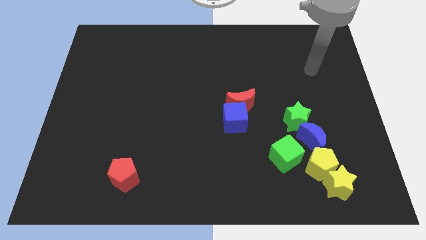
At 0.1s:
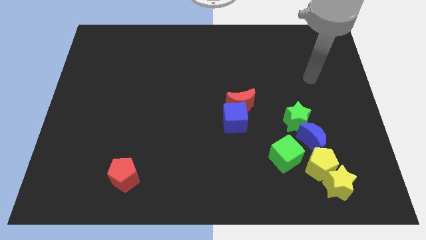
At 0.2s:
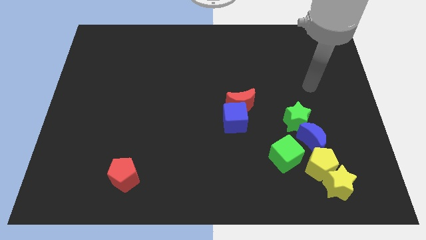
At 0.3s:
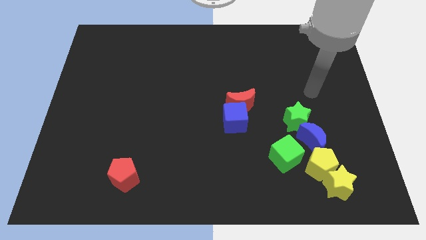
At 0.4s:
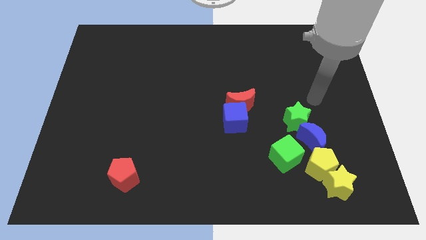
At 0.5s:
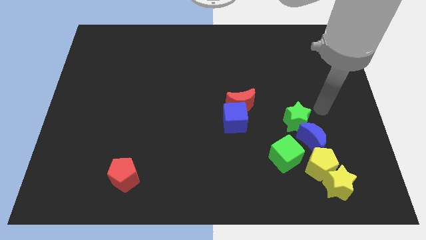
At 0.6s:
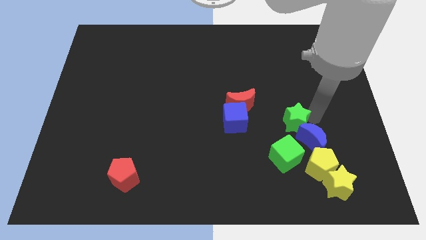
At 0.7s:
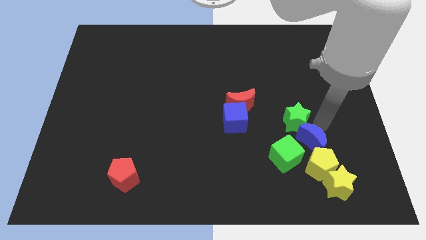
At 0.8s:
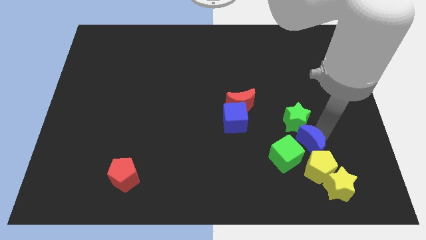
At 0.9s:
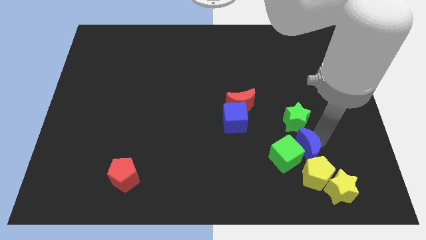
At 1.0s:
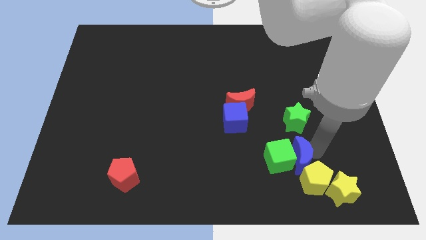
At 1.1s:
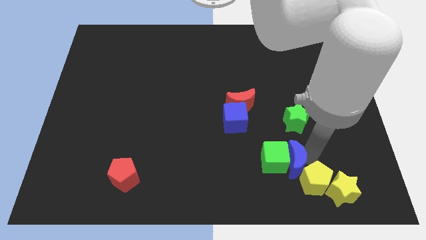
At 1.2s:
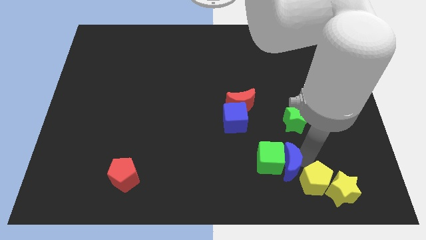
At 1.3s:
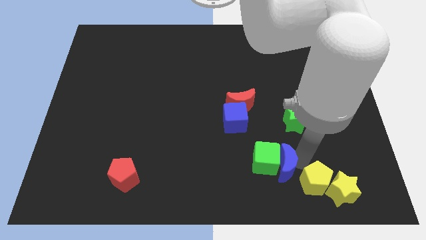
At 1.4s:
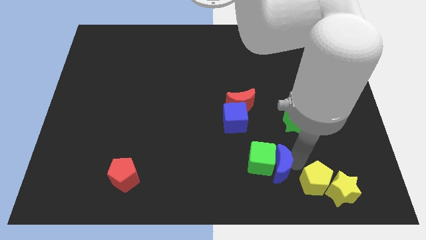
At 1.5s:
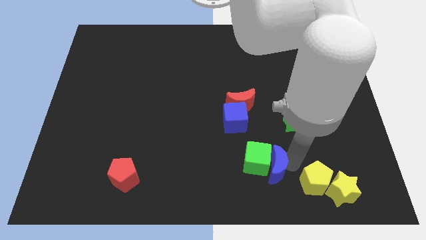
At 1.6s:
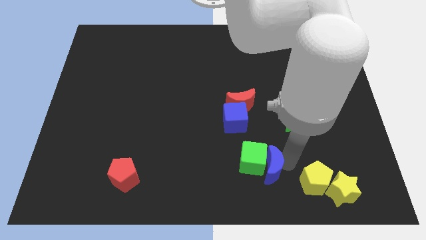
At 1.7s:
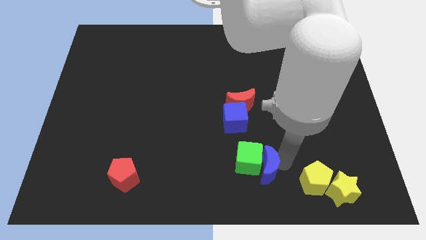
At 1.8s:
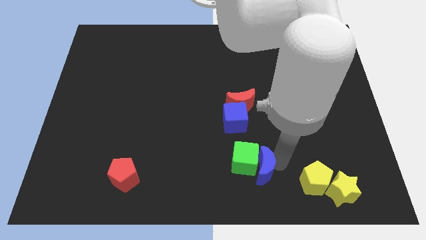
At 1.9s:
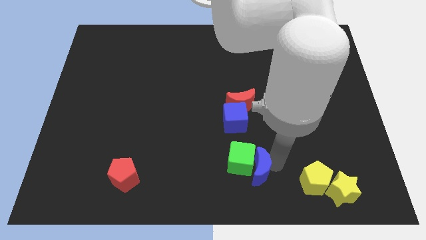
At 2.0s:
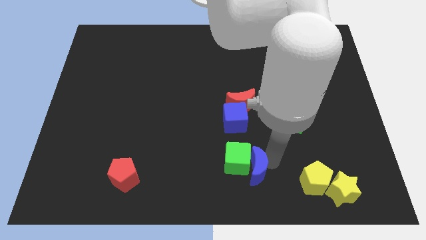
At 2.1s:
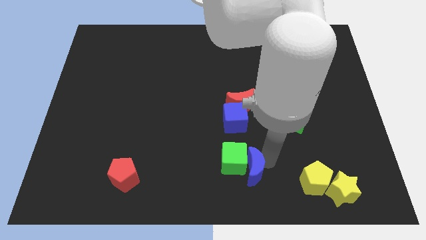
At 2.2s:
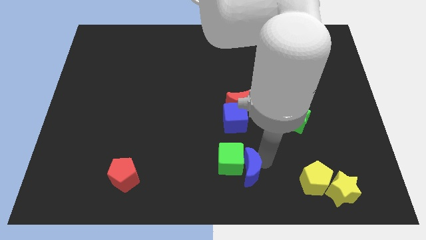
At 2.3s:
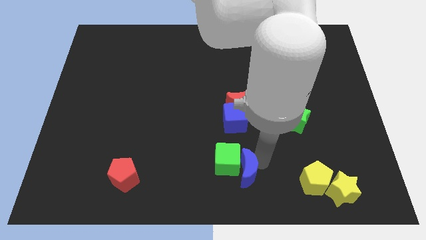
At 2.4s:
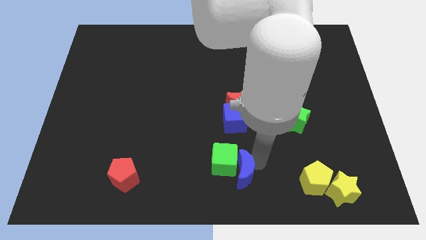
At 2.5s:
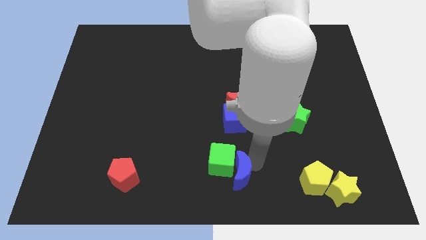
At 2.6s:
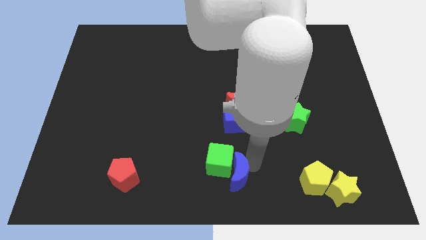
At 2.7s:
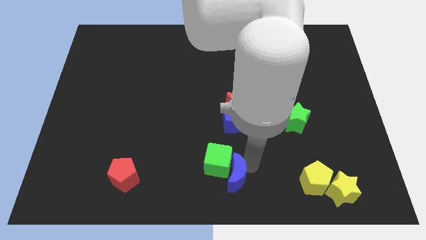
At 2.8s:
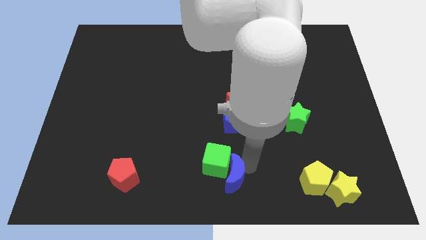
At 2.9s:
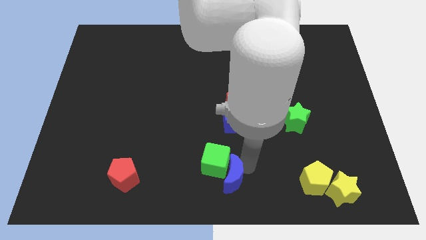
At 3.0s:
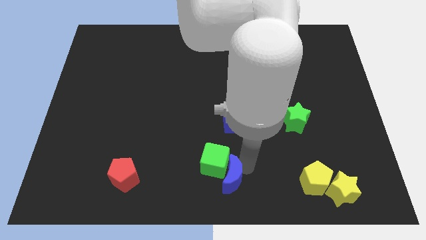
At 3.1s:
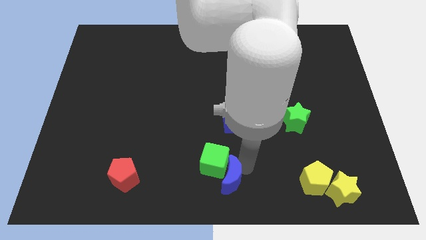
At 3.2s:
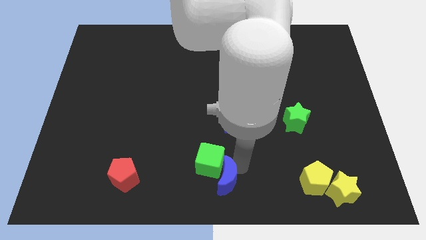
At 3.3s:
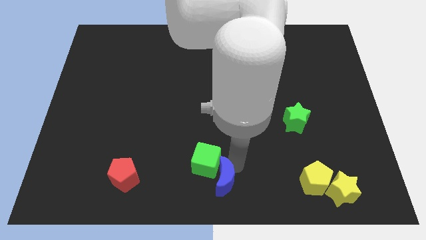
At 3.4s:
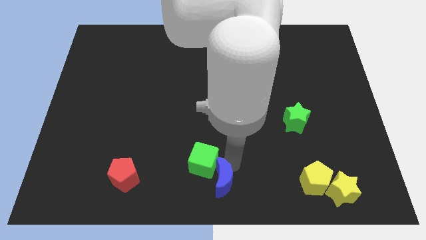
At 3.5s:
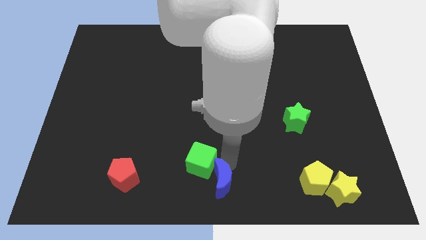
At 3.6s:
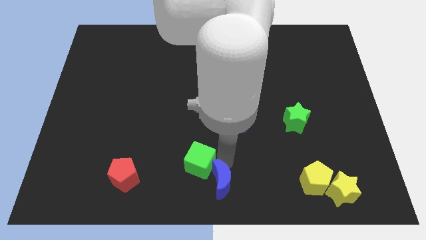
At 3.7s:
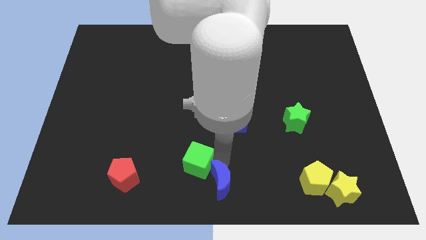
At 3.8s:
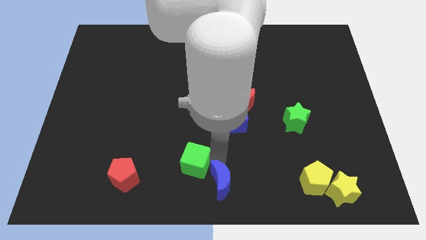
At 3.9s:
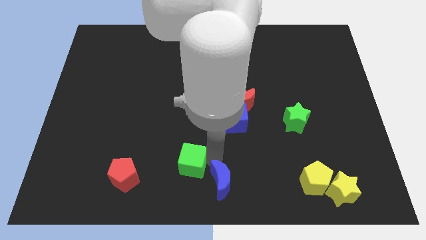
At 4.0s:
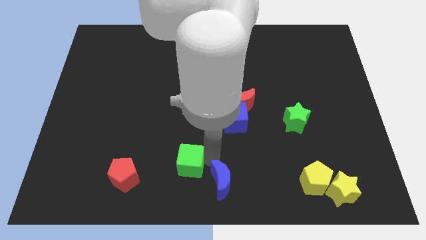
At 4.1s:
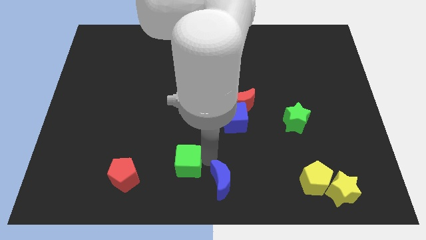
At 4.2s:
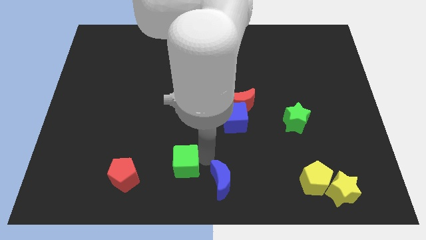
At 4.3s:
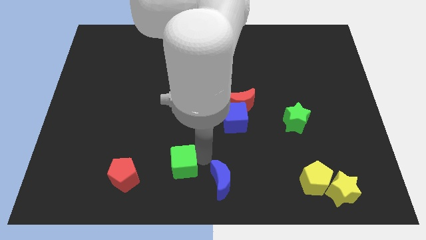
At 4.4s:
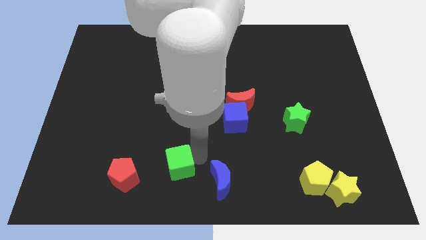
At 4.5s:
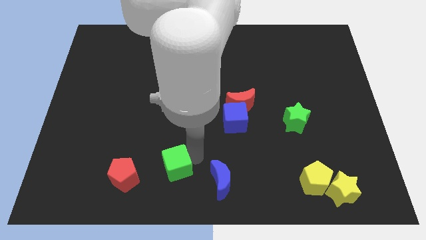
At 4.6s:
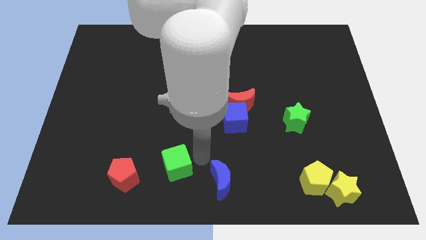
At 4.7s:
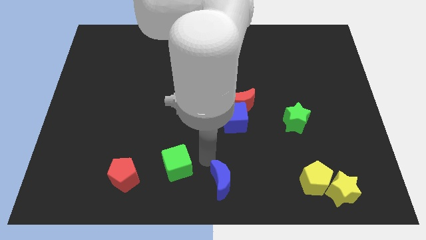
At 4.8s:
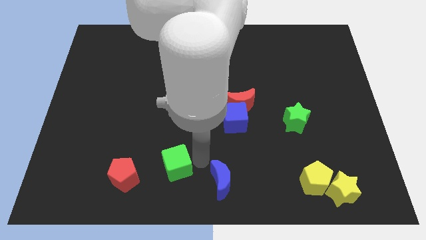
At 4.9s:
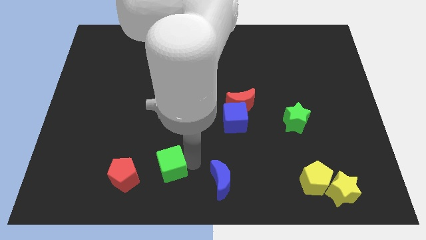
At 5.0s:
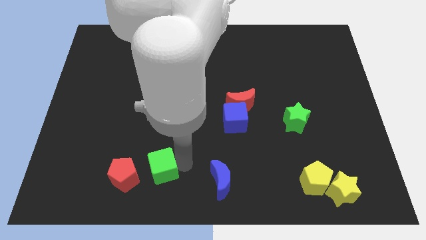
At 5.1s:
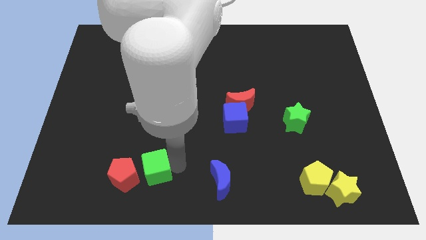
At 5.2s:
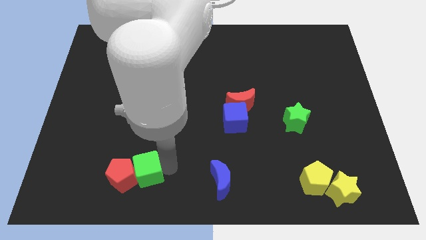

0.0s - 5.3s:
move the green cube to the red pentagon

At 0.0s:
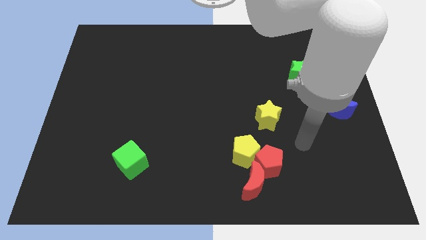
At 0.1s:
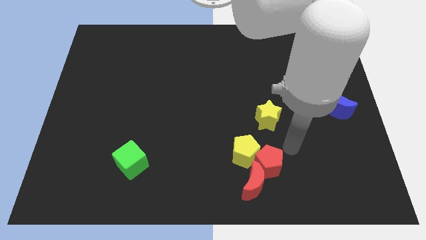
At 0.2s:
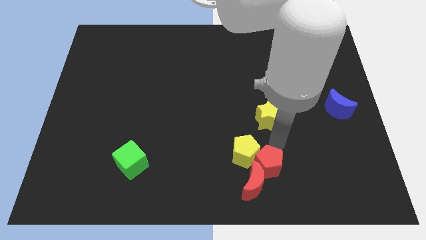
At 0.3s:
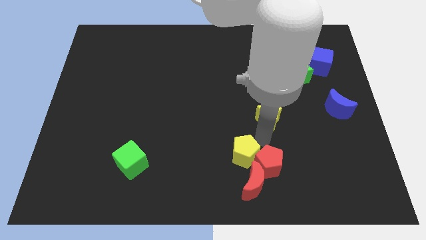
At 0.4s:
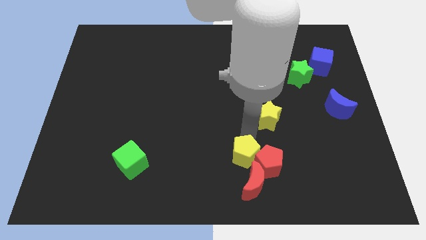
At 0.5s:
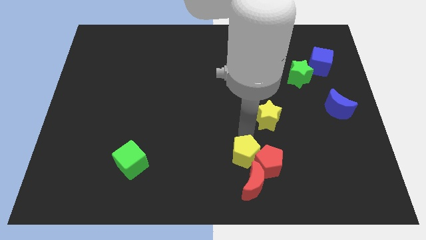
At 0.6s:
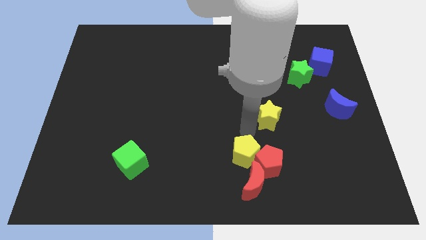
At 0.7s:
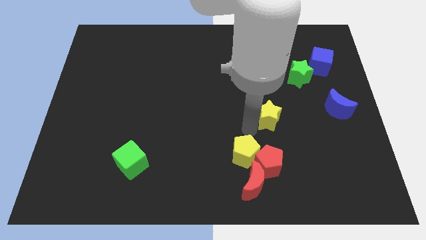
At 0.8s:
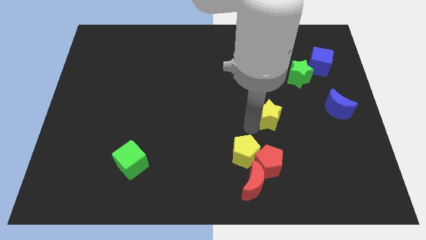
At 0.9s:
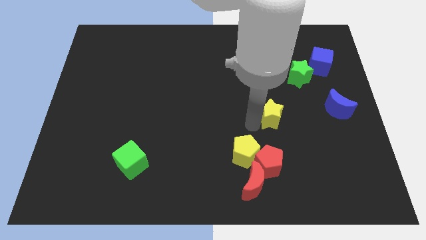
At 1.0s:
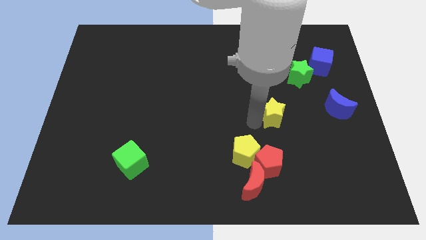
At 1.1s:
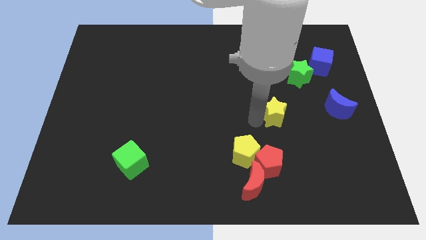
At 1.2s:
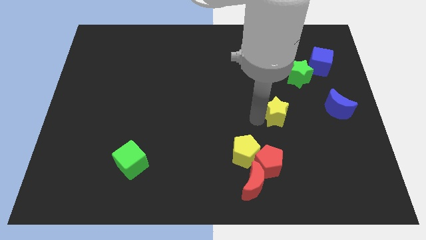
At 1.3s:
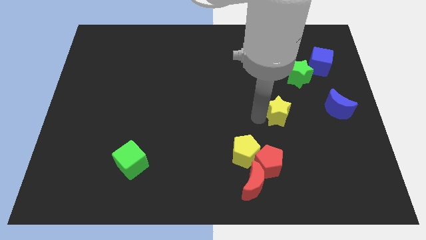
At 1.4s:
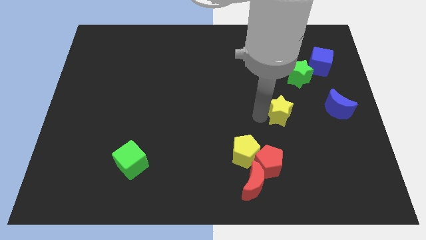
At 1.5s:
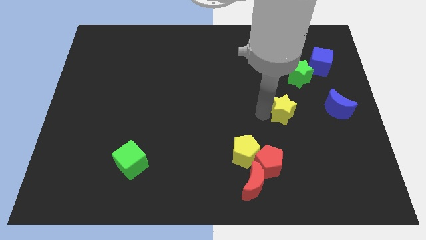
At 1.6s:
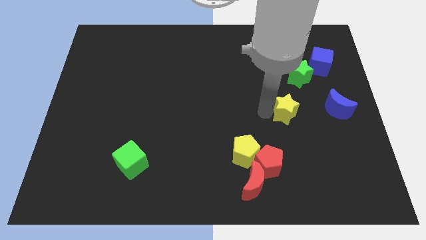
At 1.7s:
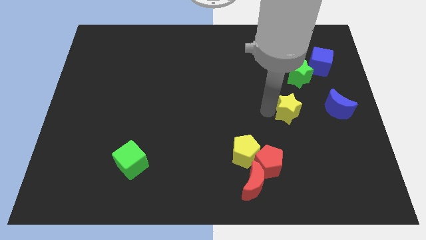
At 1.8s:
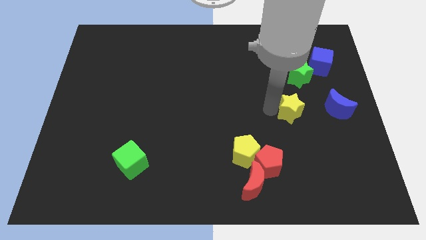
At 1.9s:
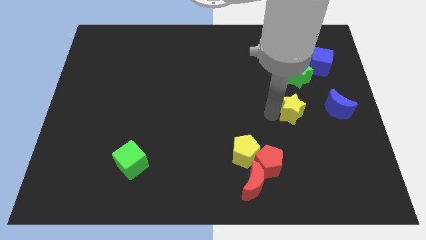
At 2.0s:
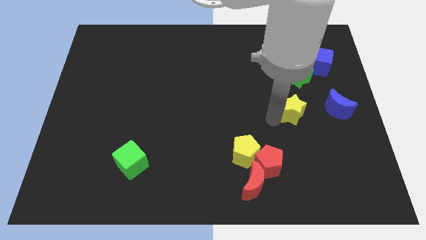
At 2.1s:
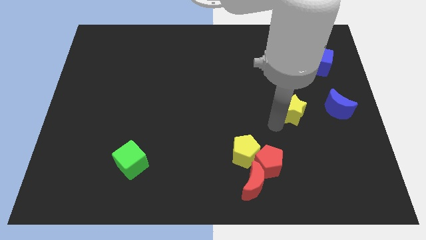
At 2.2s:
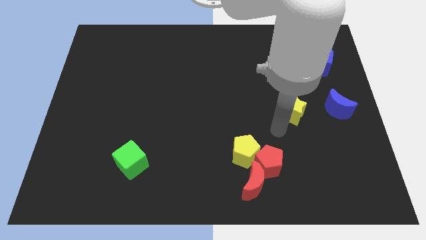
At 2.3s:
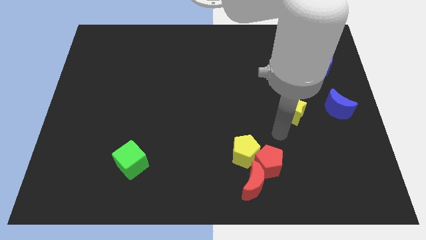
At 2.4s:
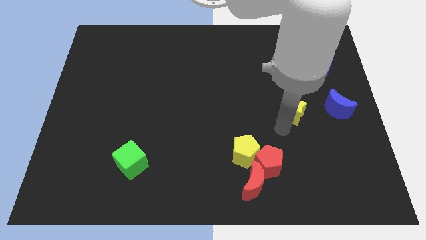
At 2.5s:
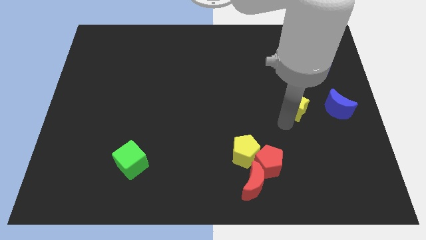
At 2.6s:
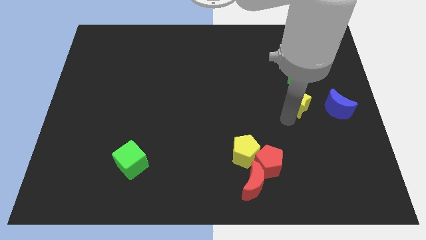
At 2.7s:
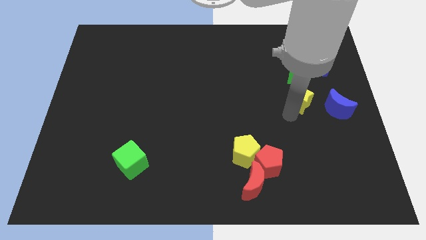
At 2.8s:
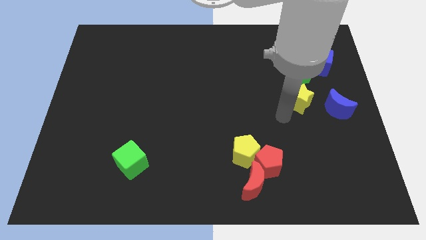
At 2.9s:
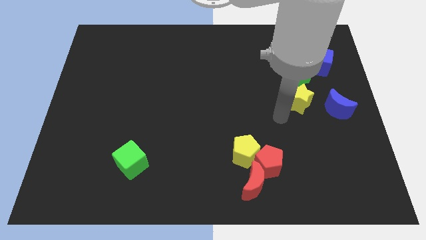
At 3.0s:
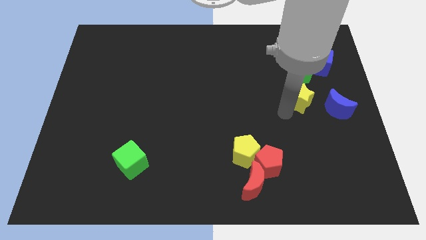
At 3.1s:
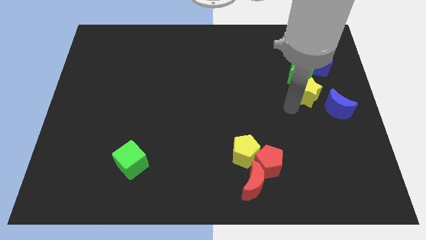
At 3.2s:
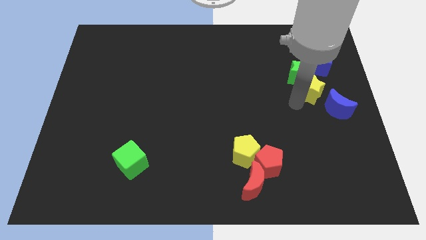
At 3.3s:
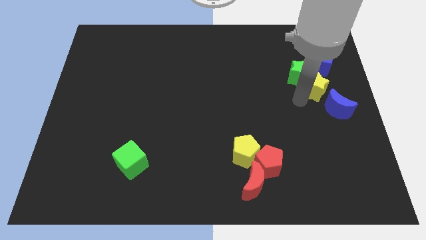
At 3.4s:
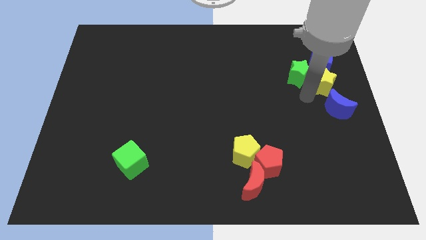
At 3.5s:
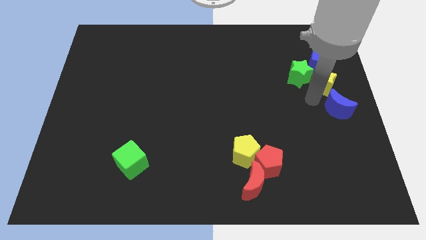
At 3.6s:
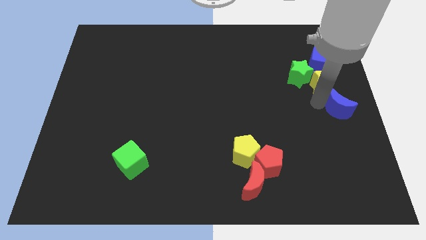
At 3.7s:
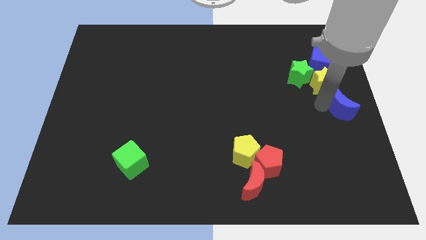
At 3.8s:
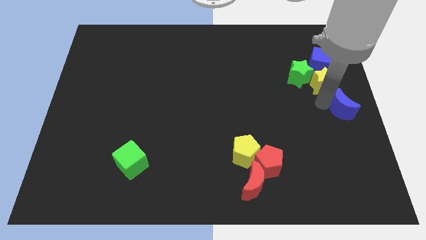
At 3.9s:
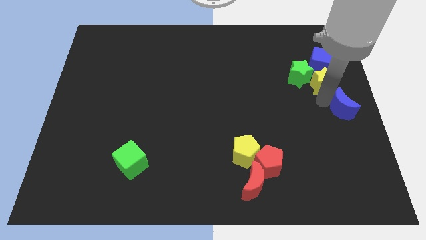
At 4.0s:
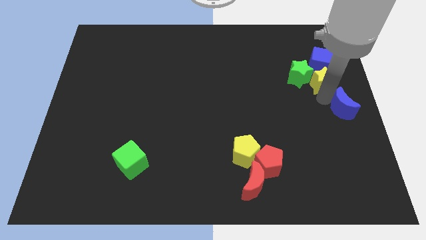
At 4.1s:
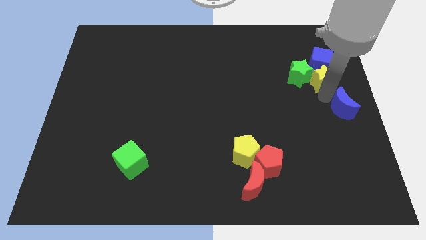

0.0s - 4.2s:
slide the yellow star close to the blue cube
